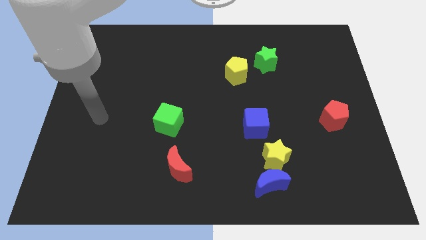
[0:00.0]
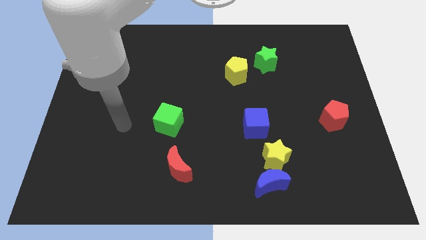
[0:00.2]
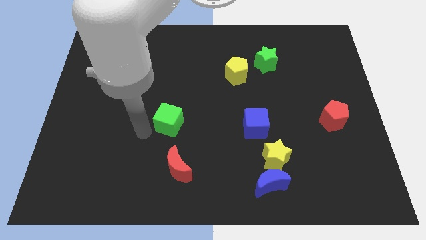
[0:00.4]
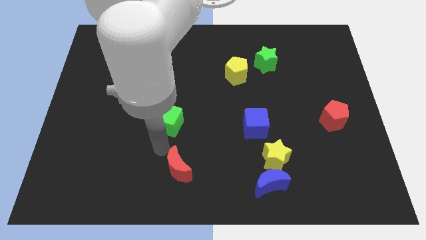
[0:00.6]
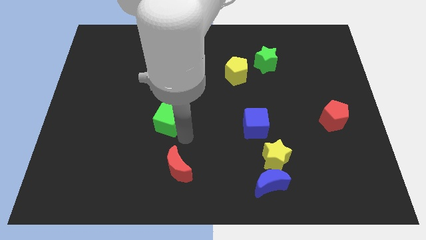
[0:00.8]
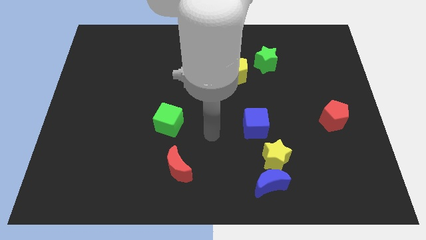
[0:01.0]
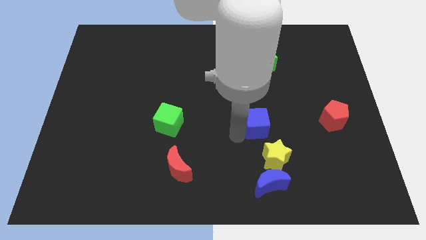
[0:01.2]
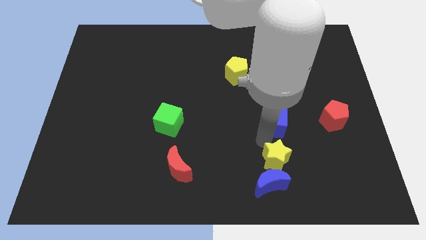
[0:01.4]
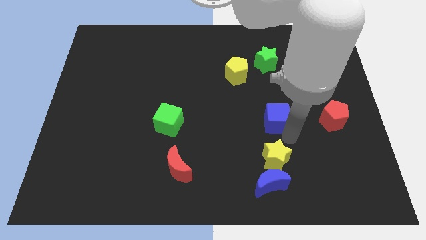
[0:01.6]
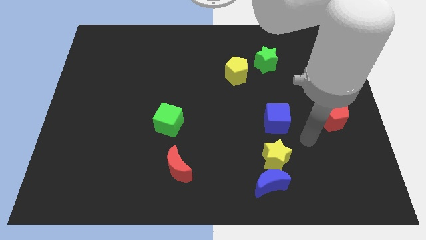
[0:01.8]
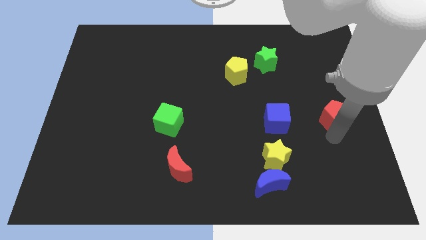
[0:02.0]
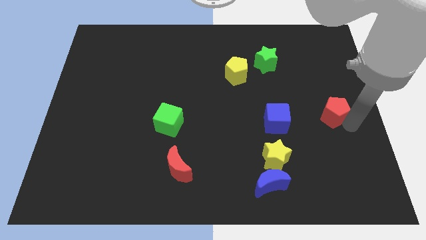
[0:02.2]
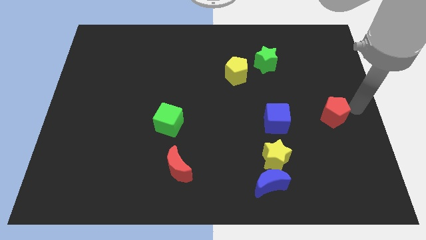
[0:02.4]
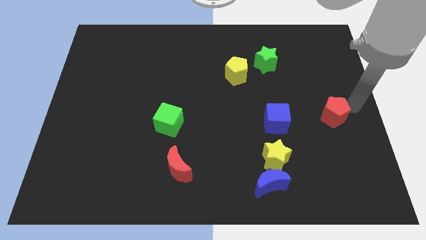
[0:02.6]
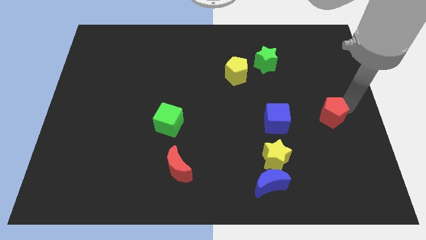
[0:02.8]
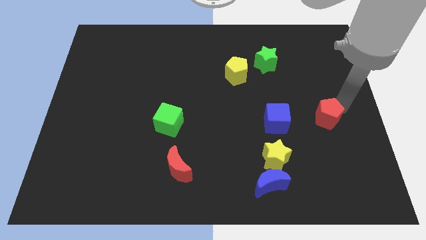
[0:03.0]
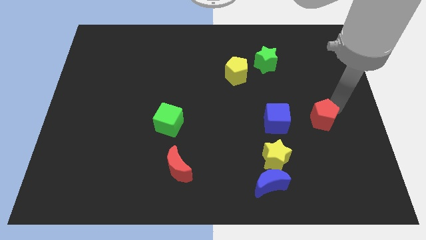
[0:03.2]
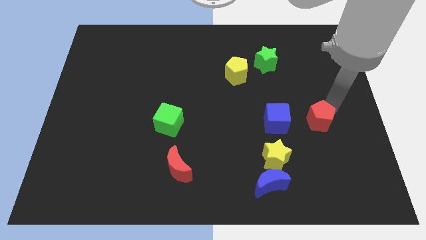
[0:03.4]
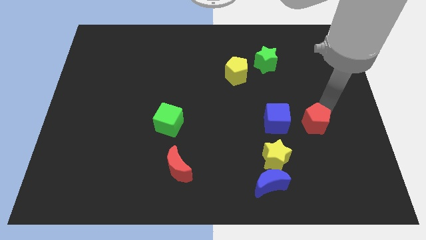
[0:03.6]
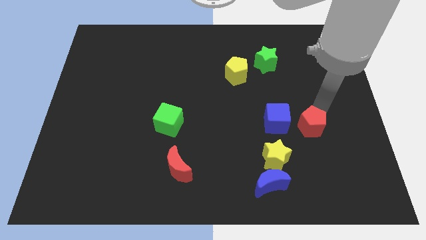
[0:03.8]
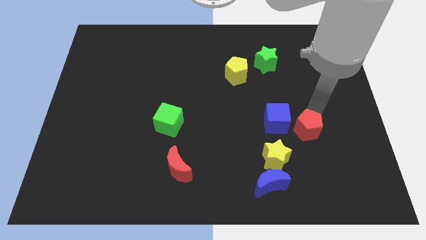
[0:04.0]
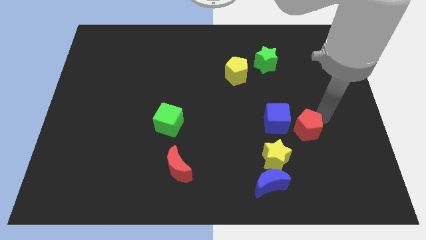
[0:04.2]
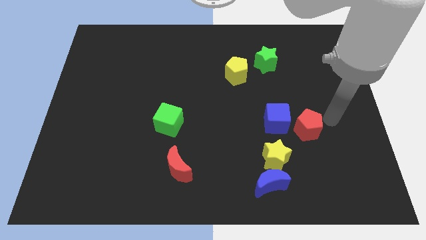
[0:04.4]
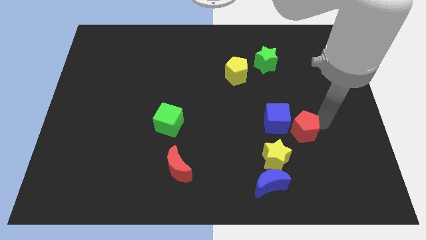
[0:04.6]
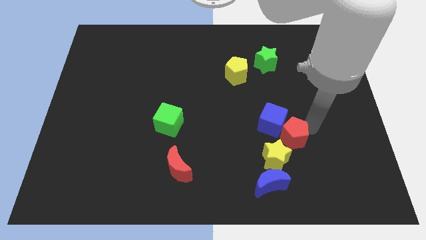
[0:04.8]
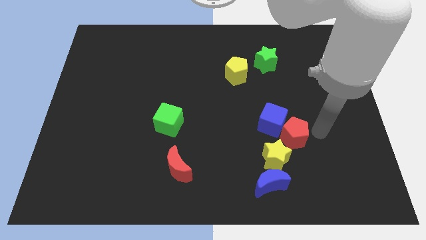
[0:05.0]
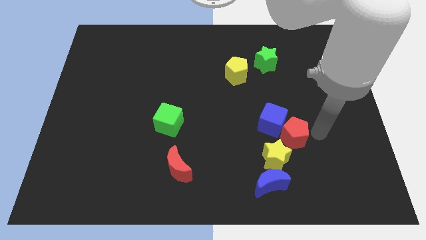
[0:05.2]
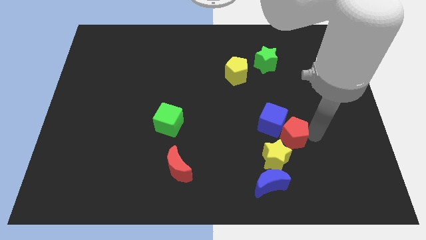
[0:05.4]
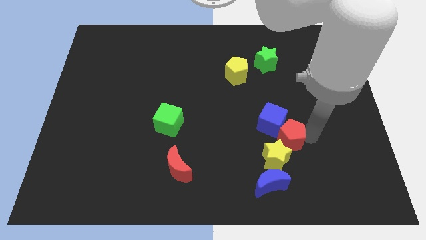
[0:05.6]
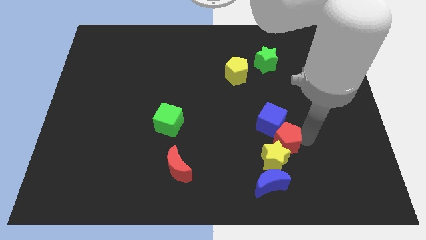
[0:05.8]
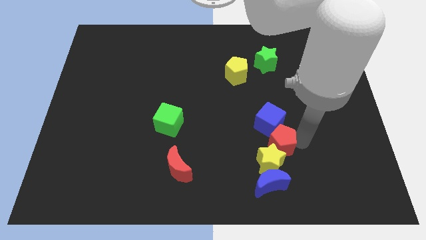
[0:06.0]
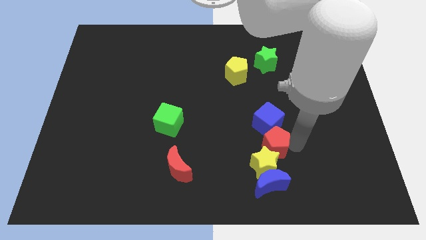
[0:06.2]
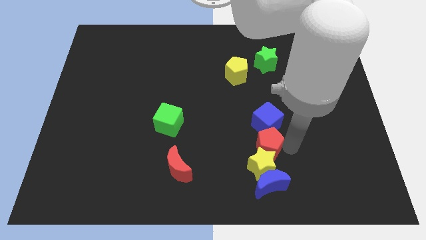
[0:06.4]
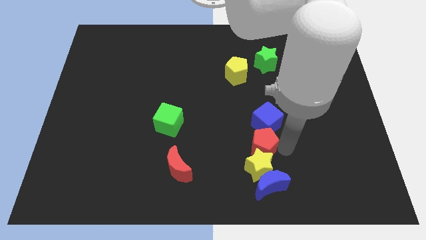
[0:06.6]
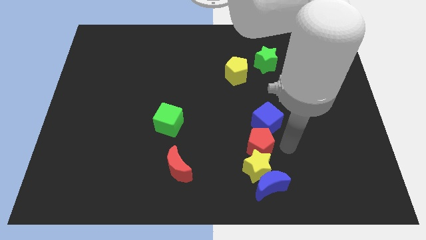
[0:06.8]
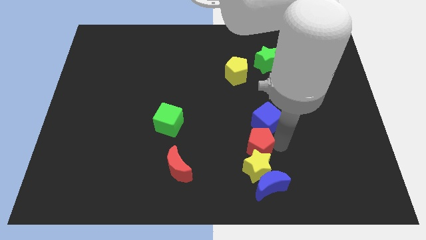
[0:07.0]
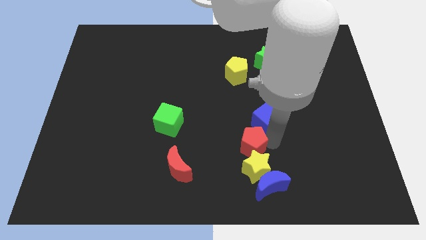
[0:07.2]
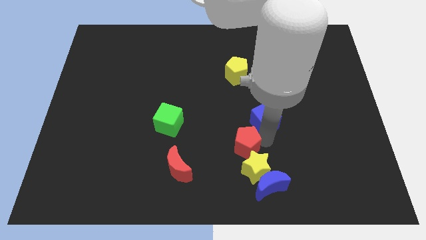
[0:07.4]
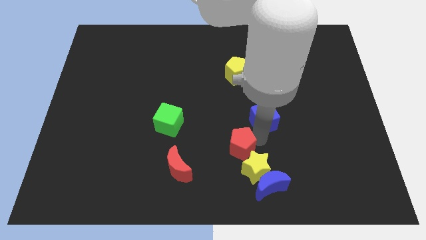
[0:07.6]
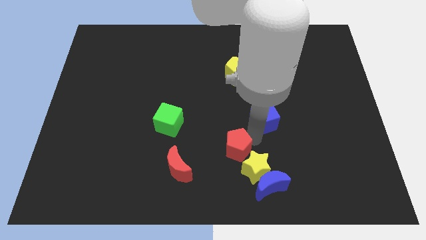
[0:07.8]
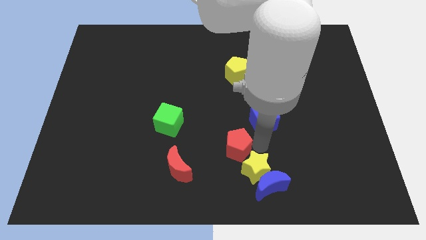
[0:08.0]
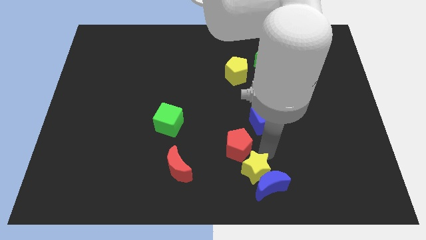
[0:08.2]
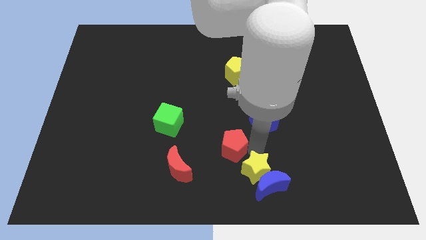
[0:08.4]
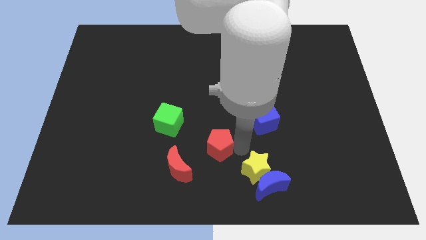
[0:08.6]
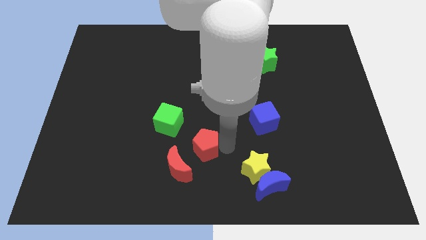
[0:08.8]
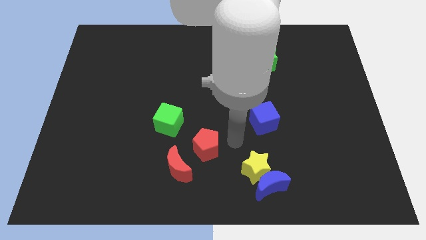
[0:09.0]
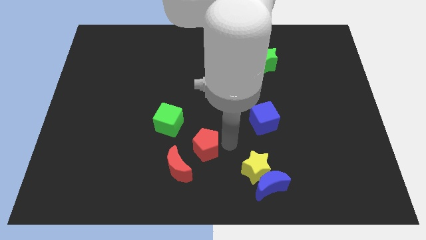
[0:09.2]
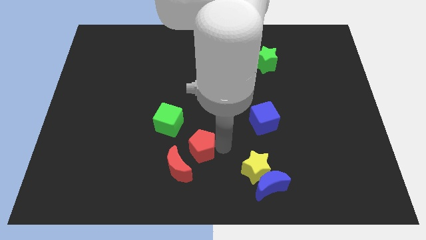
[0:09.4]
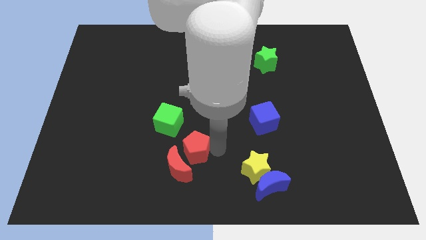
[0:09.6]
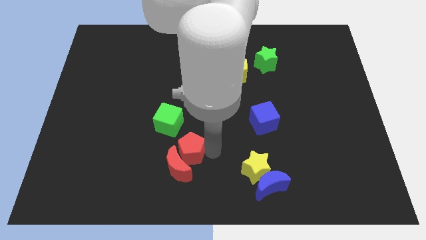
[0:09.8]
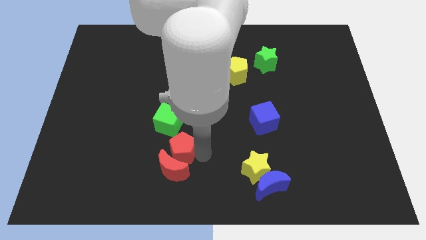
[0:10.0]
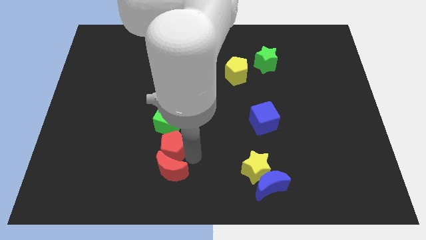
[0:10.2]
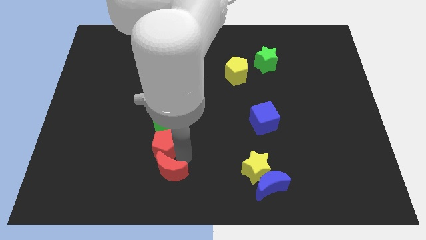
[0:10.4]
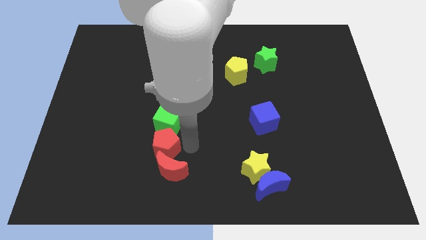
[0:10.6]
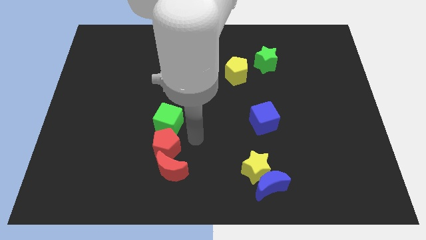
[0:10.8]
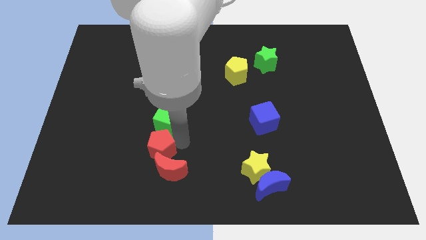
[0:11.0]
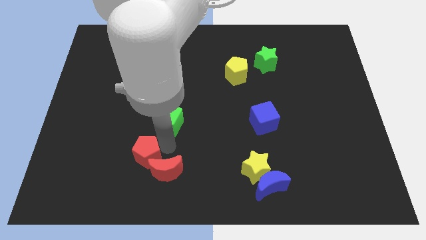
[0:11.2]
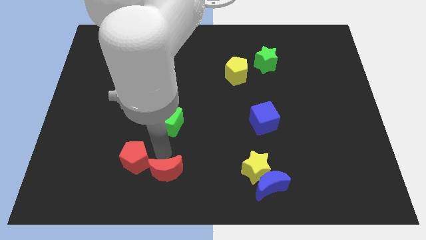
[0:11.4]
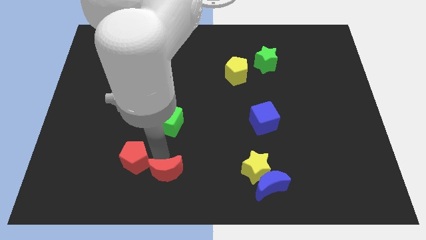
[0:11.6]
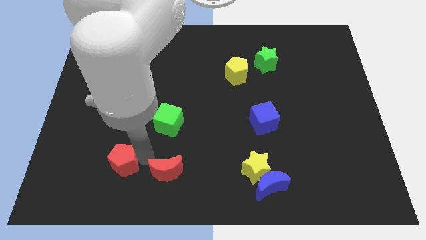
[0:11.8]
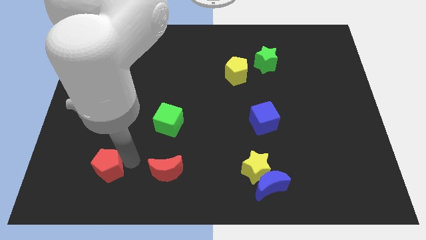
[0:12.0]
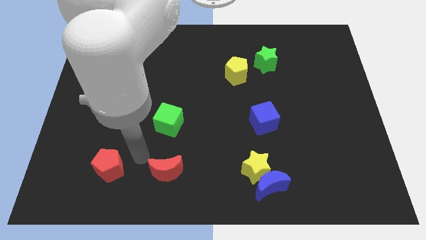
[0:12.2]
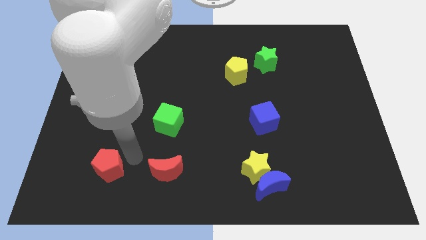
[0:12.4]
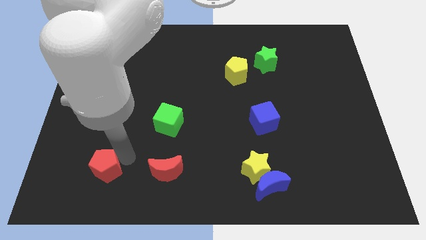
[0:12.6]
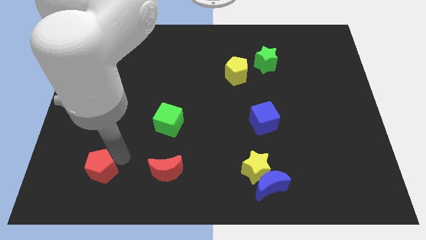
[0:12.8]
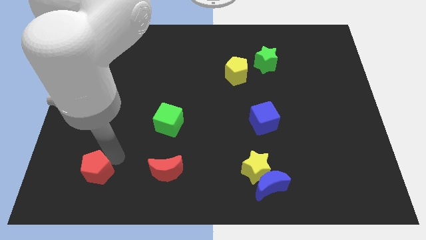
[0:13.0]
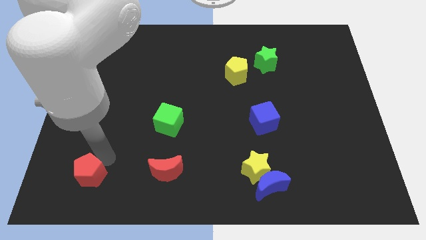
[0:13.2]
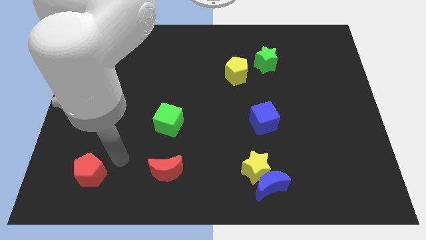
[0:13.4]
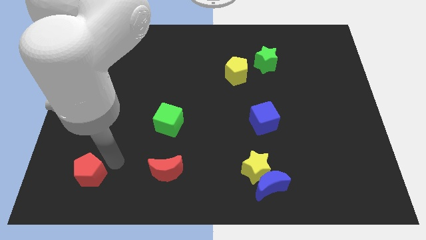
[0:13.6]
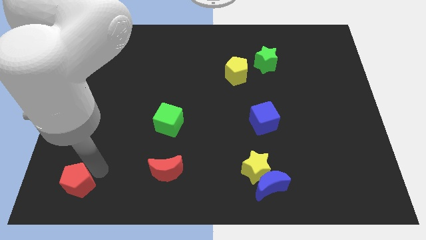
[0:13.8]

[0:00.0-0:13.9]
put the red pentagon to the lower left corner
